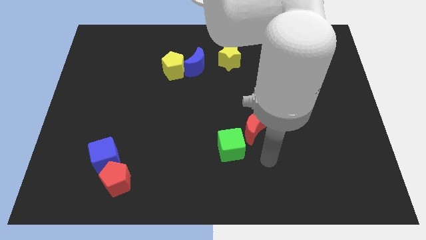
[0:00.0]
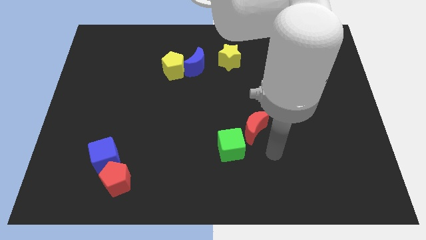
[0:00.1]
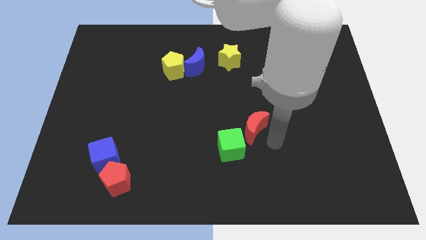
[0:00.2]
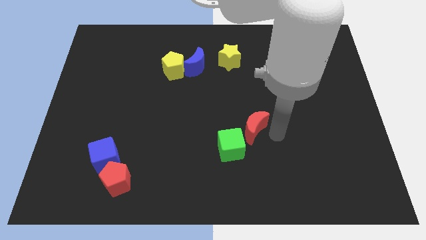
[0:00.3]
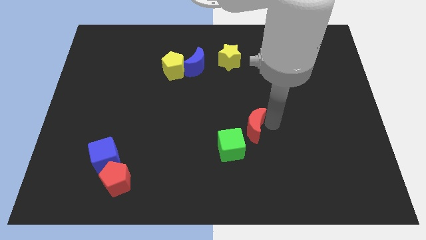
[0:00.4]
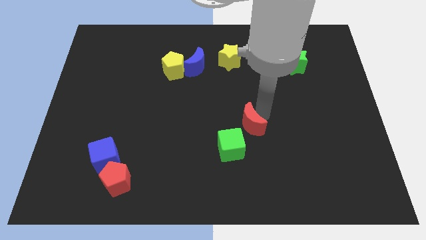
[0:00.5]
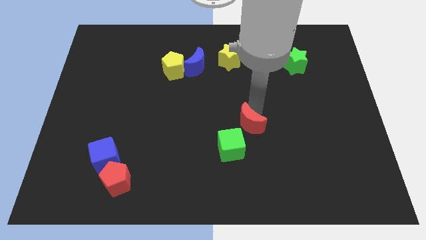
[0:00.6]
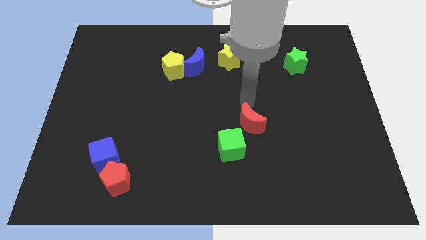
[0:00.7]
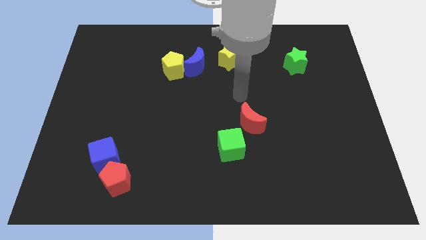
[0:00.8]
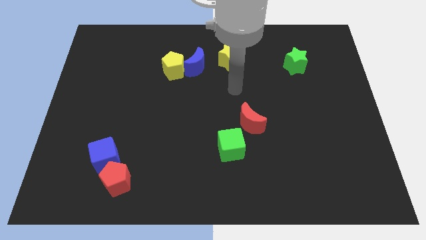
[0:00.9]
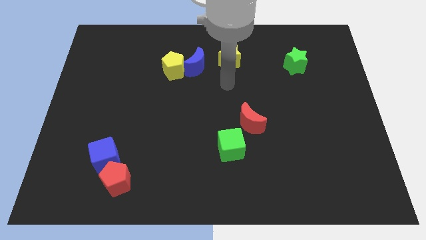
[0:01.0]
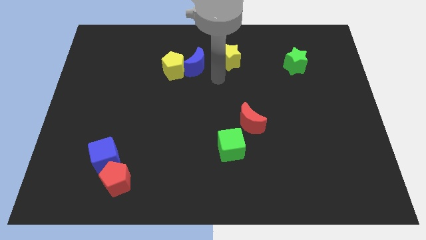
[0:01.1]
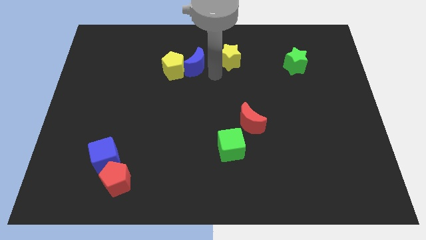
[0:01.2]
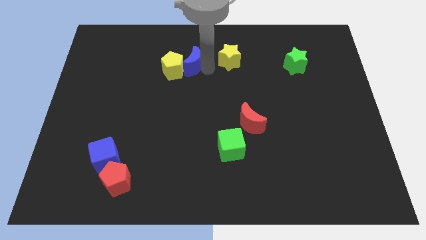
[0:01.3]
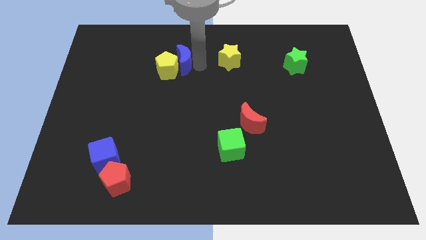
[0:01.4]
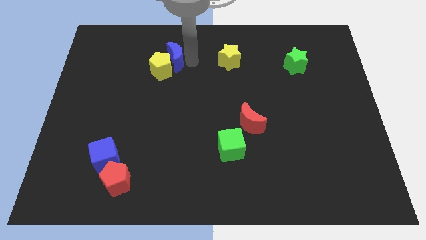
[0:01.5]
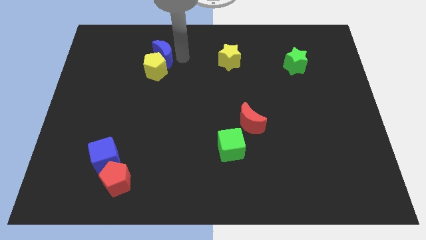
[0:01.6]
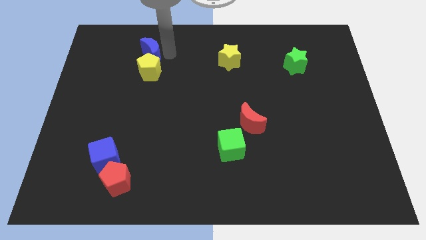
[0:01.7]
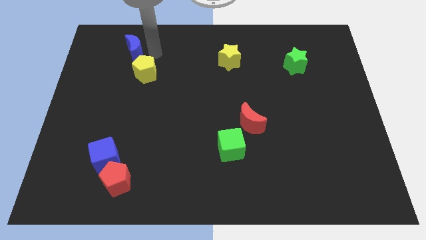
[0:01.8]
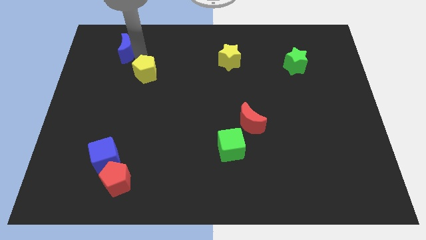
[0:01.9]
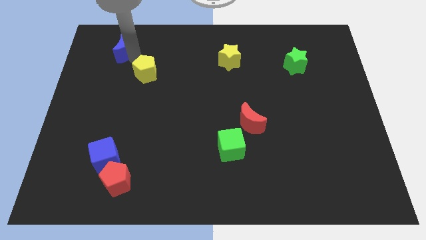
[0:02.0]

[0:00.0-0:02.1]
move the yellow pentagon away from the blue moon

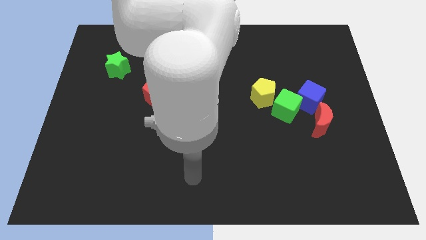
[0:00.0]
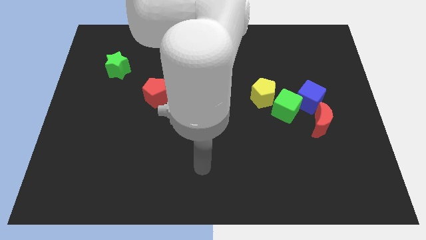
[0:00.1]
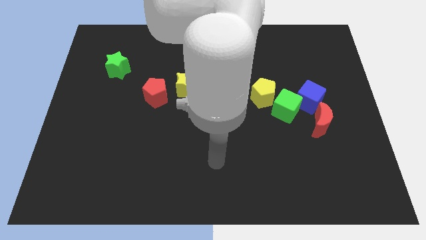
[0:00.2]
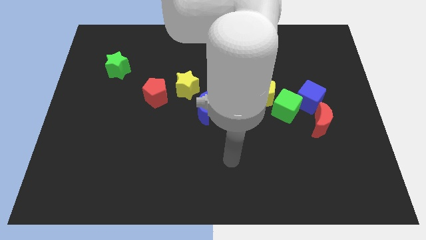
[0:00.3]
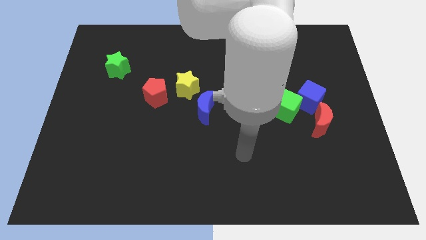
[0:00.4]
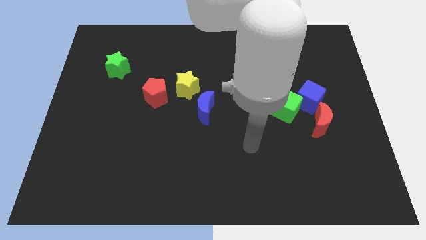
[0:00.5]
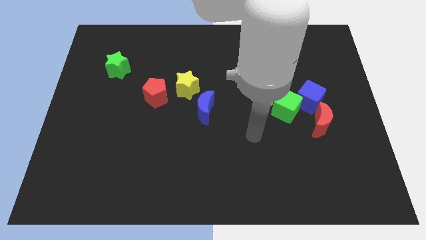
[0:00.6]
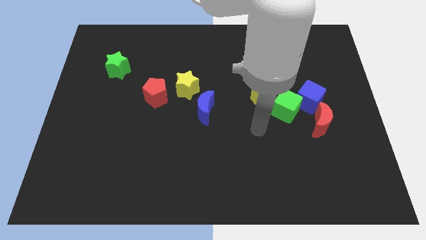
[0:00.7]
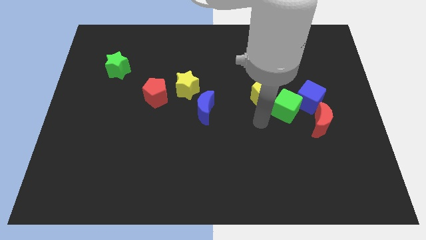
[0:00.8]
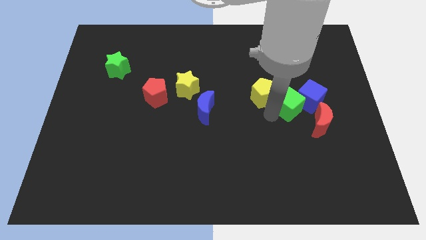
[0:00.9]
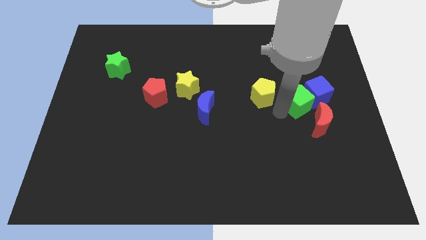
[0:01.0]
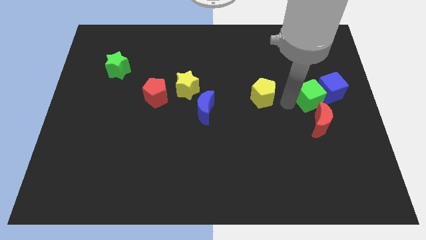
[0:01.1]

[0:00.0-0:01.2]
separate the yellow pentagon from the green cube

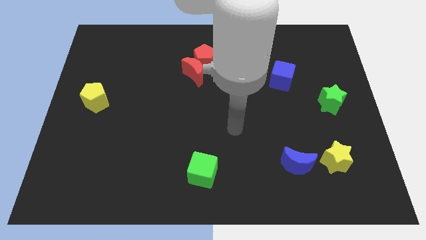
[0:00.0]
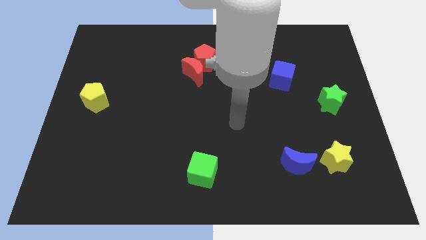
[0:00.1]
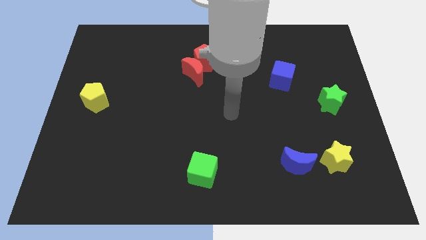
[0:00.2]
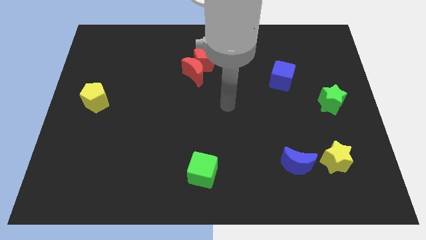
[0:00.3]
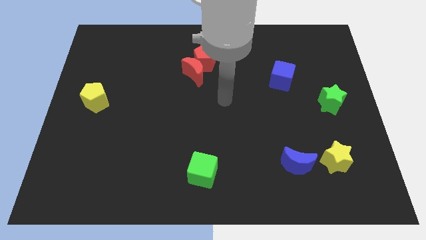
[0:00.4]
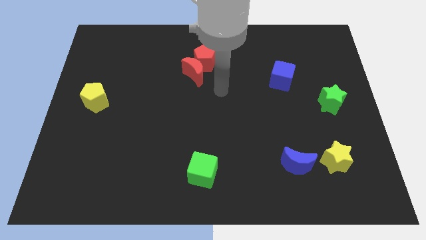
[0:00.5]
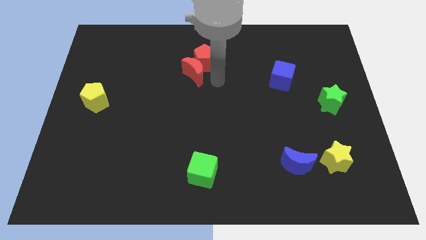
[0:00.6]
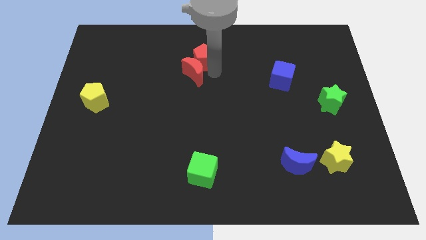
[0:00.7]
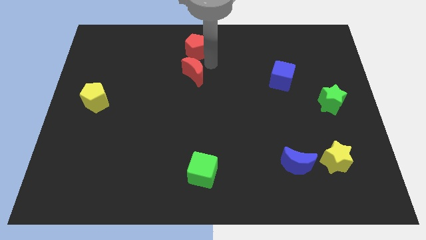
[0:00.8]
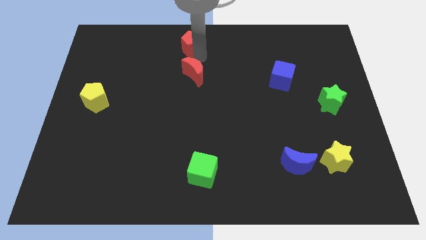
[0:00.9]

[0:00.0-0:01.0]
move the red moon away from the red pentagon

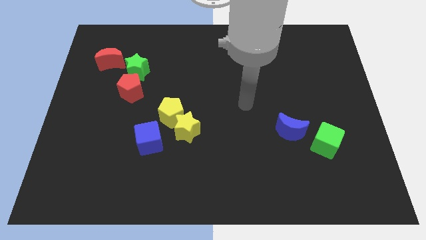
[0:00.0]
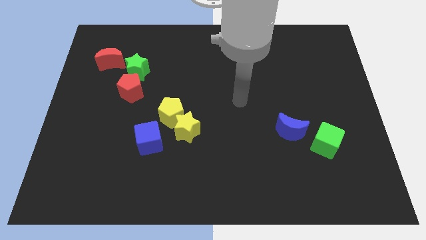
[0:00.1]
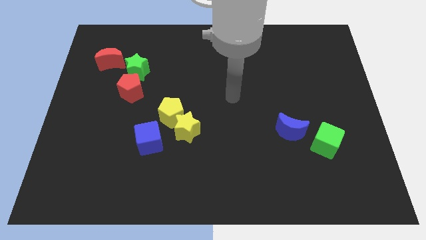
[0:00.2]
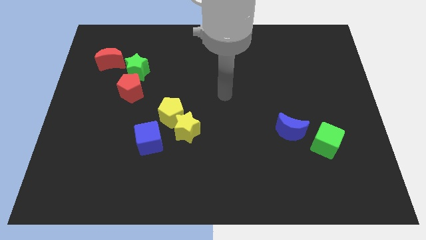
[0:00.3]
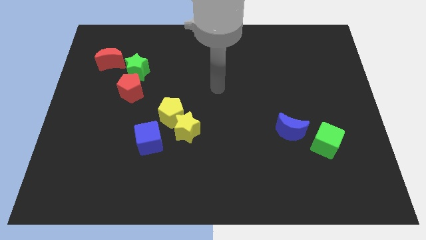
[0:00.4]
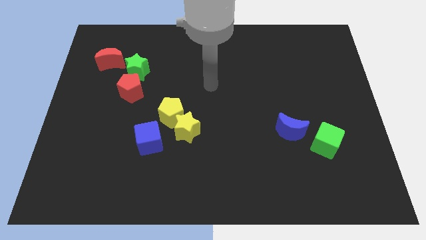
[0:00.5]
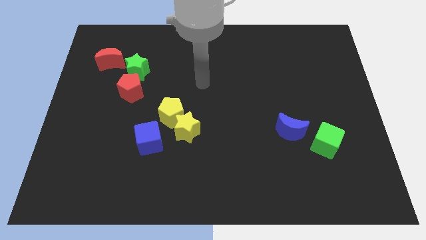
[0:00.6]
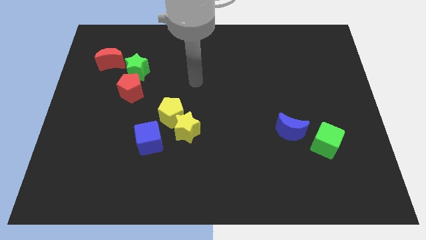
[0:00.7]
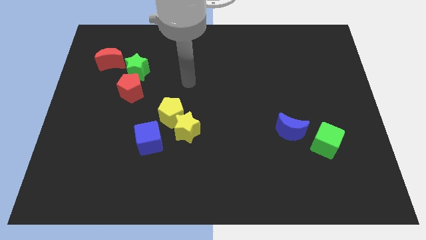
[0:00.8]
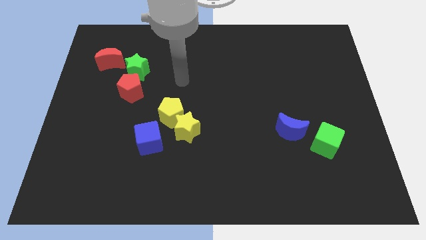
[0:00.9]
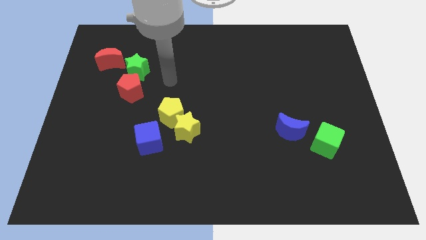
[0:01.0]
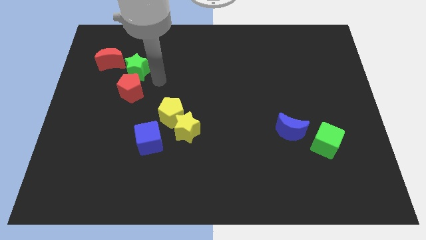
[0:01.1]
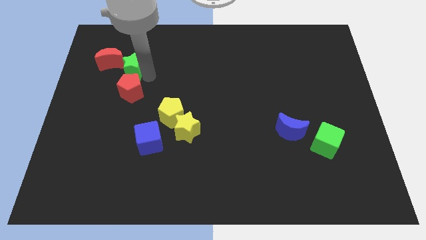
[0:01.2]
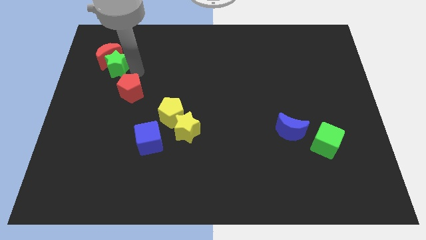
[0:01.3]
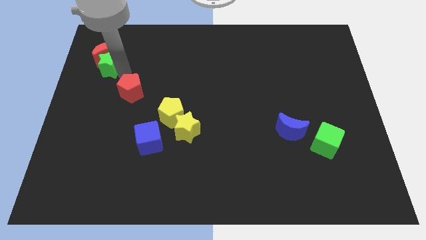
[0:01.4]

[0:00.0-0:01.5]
separate the red pentagon from the green star

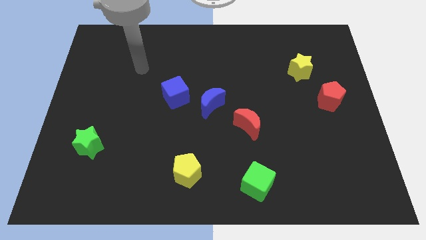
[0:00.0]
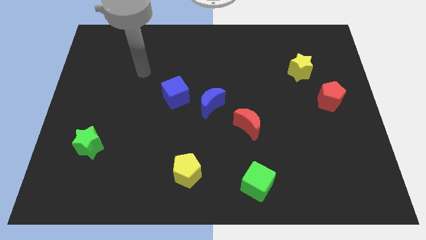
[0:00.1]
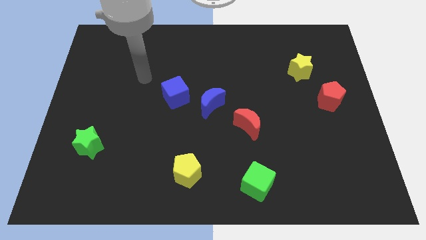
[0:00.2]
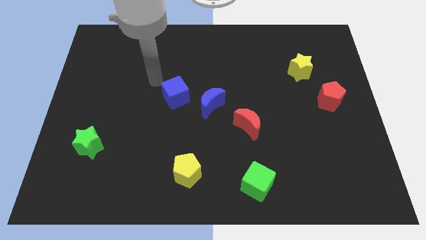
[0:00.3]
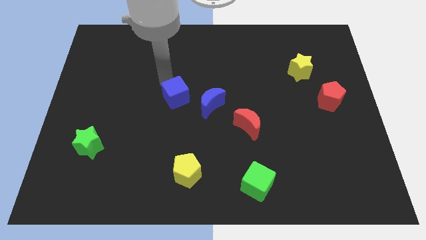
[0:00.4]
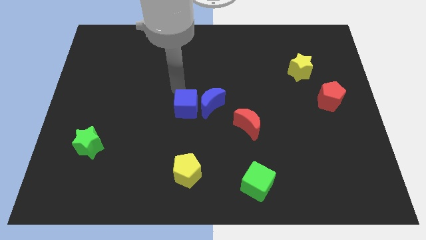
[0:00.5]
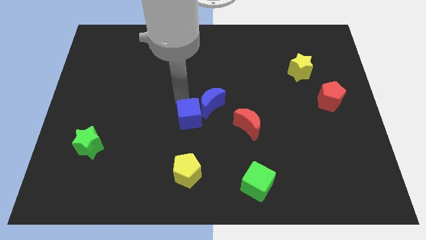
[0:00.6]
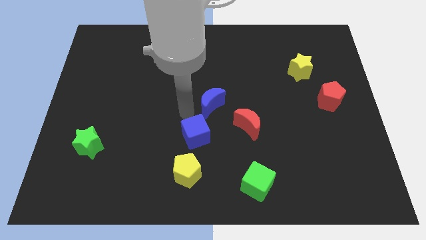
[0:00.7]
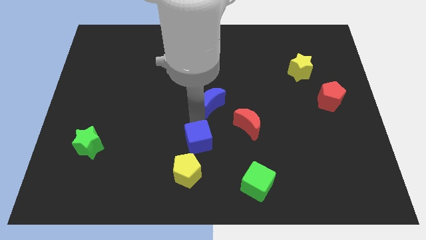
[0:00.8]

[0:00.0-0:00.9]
separate the blue moon from the blue cube

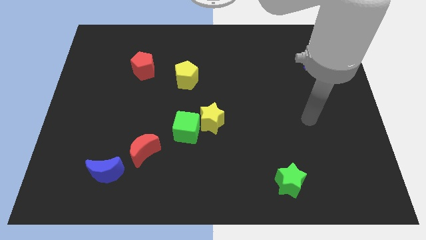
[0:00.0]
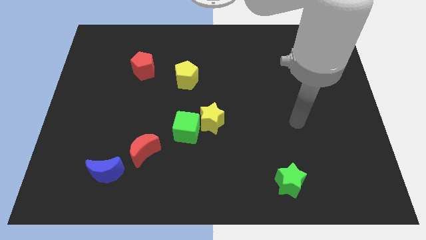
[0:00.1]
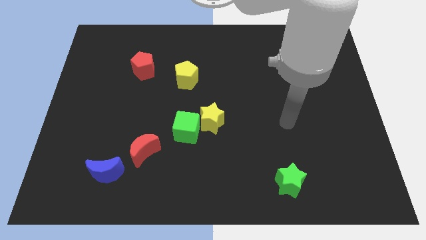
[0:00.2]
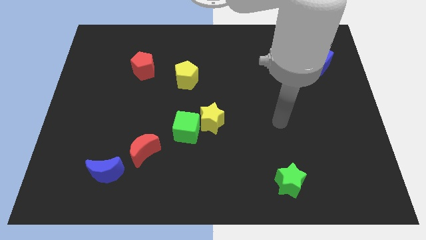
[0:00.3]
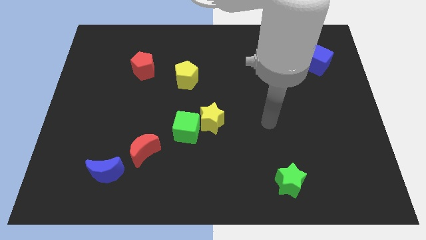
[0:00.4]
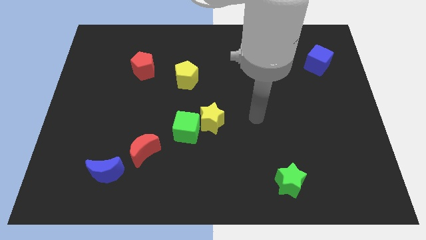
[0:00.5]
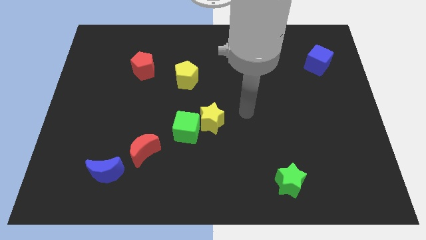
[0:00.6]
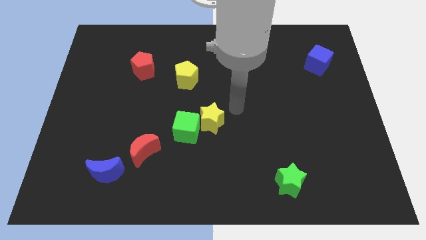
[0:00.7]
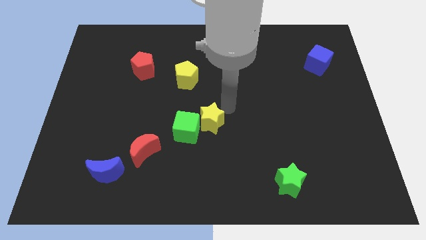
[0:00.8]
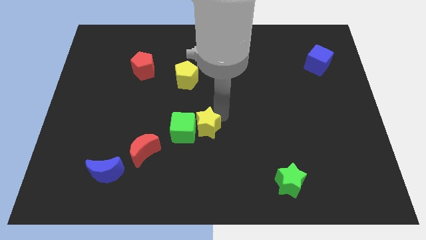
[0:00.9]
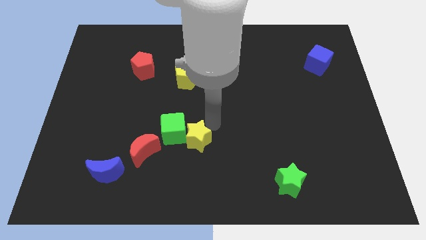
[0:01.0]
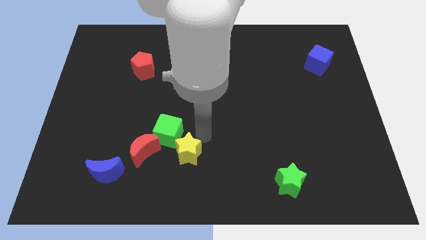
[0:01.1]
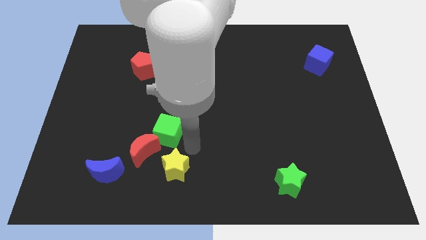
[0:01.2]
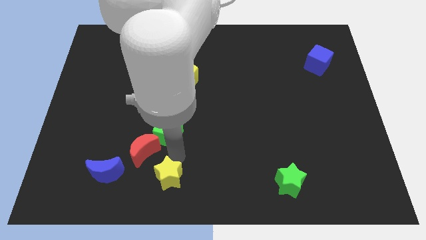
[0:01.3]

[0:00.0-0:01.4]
move the green cube away from the yellow star

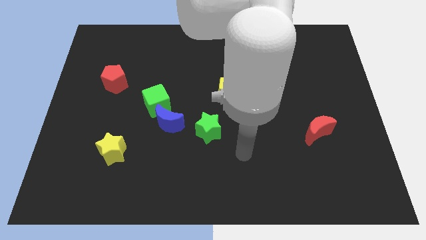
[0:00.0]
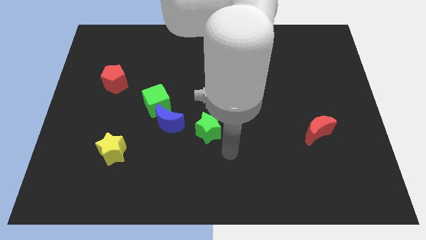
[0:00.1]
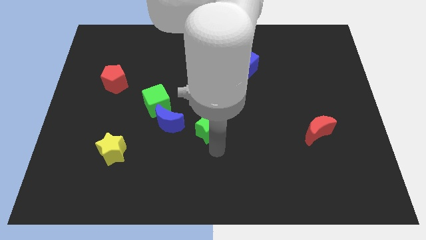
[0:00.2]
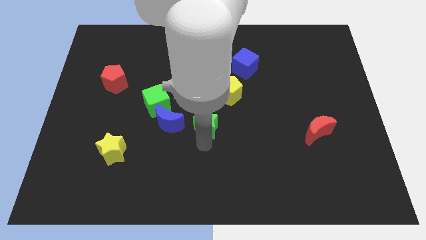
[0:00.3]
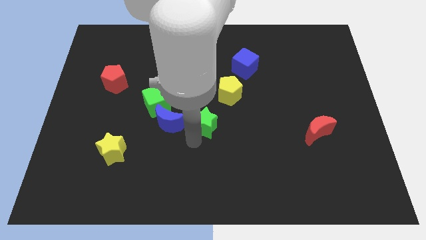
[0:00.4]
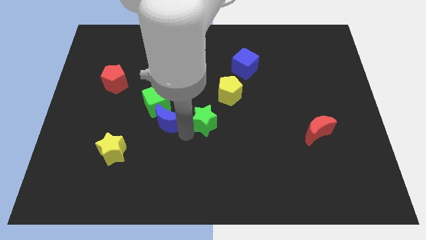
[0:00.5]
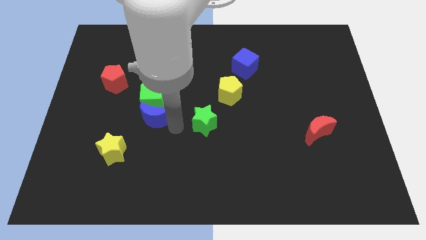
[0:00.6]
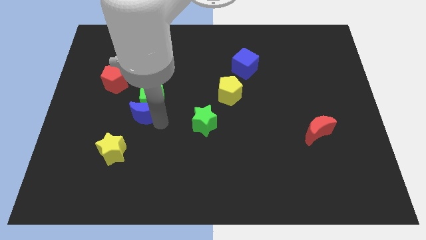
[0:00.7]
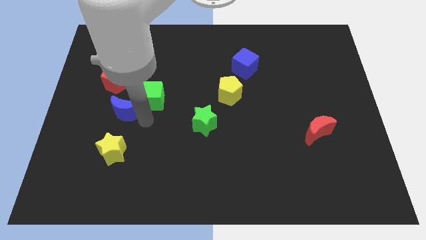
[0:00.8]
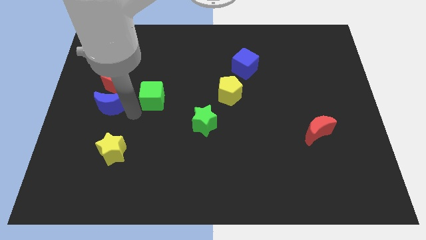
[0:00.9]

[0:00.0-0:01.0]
pull the green cube apart from the blue moon

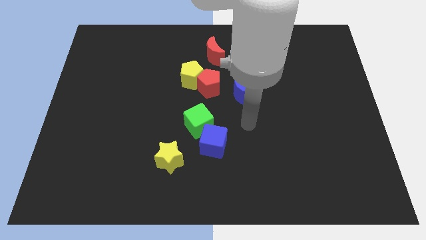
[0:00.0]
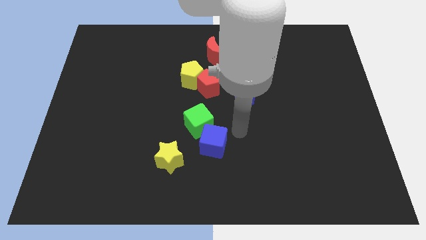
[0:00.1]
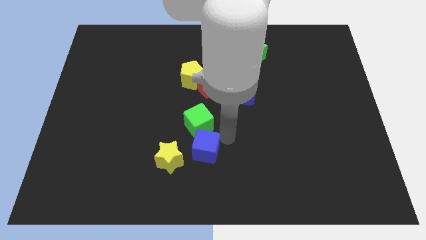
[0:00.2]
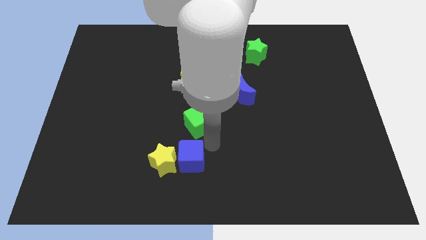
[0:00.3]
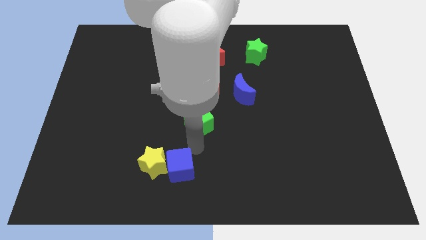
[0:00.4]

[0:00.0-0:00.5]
pull the green cube apart from the blue cube
